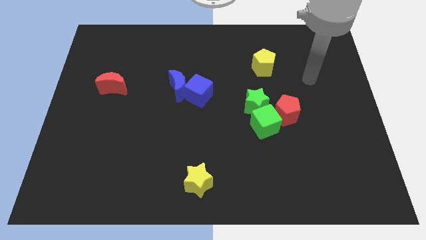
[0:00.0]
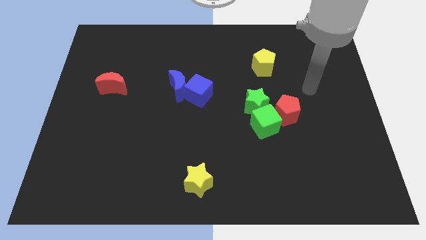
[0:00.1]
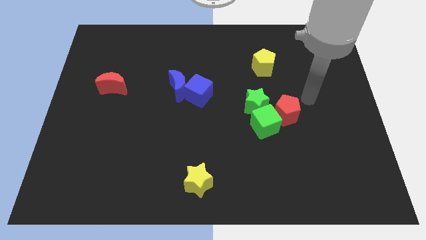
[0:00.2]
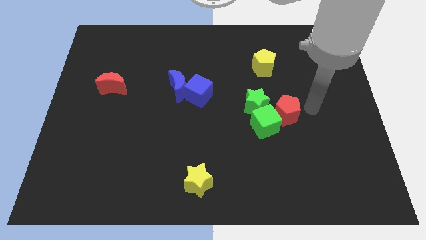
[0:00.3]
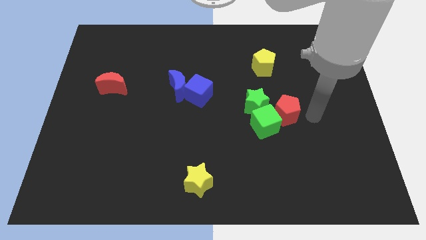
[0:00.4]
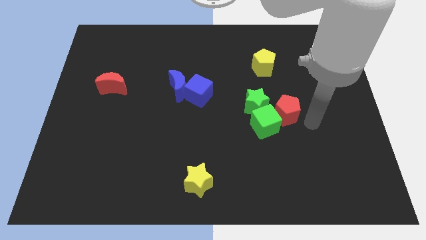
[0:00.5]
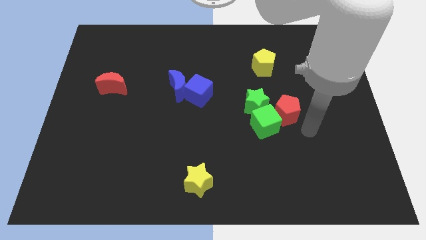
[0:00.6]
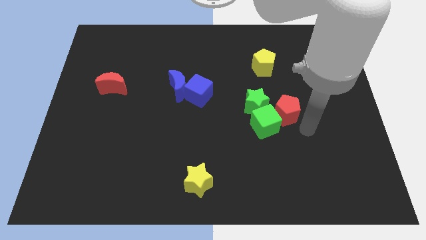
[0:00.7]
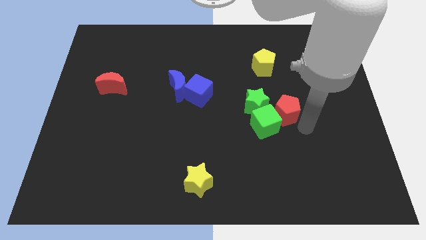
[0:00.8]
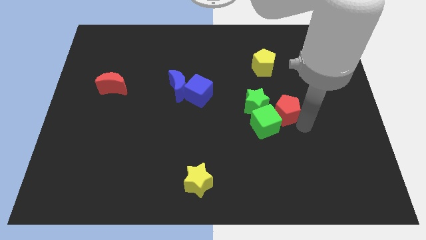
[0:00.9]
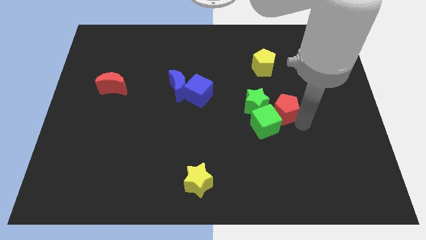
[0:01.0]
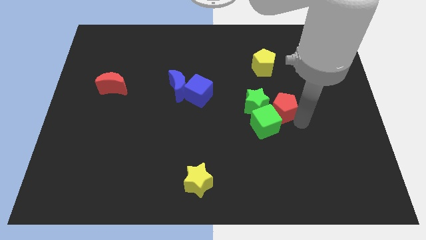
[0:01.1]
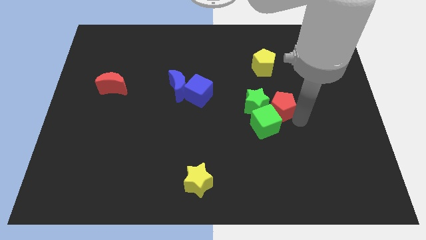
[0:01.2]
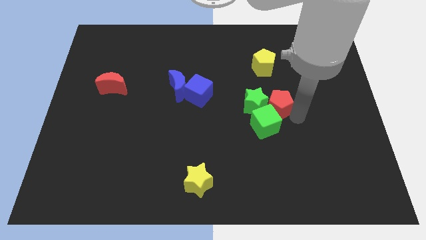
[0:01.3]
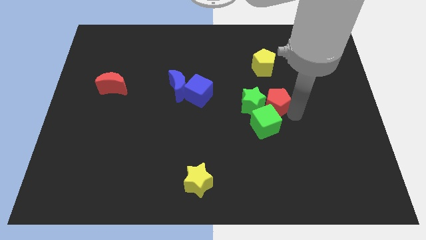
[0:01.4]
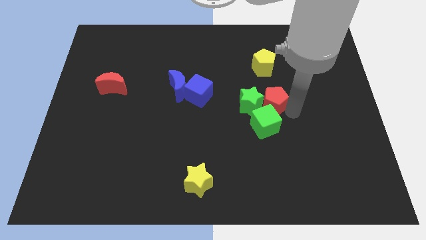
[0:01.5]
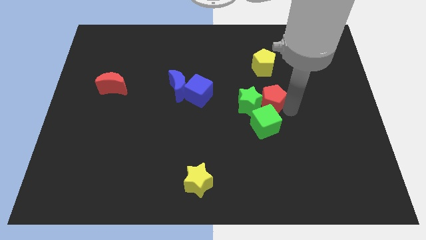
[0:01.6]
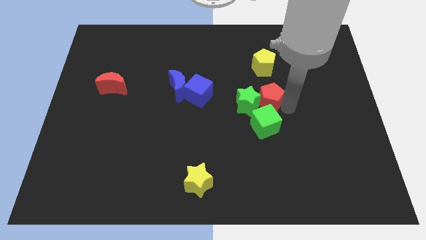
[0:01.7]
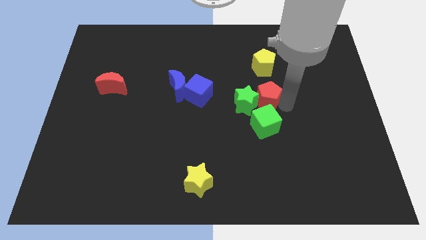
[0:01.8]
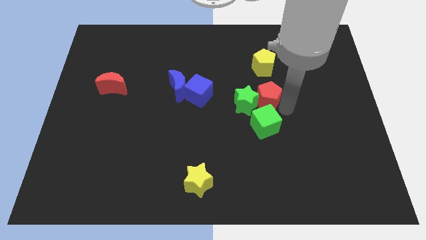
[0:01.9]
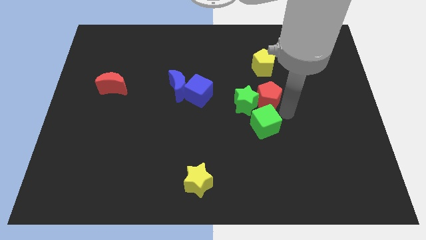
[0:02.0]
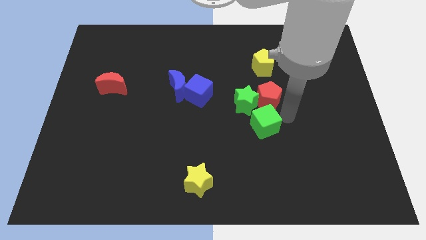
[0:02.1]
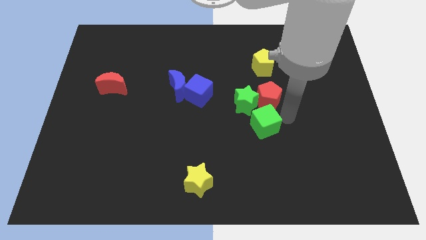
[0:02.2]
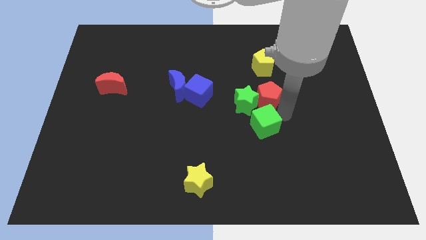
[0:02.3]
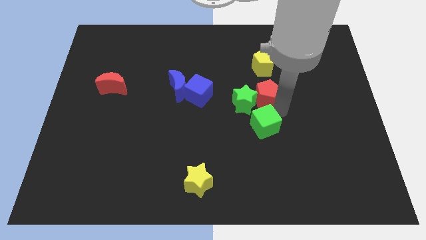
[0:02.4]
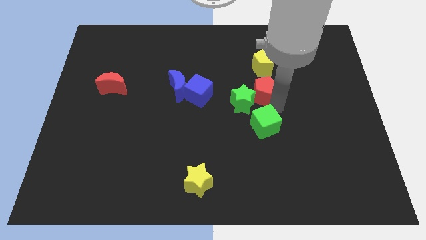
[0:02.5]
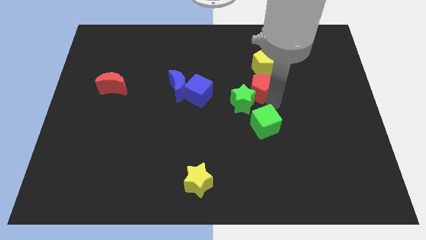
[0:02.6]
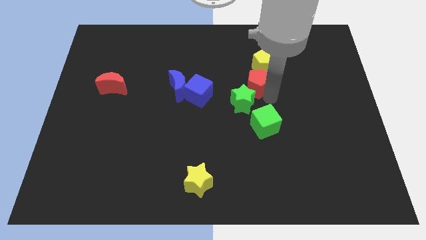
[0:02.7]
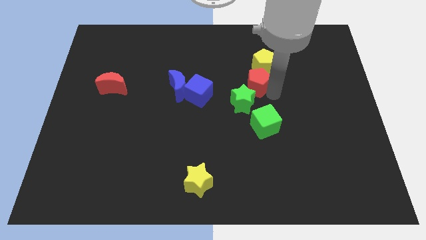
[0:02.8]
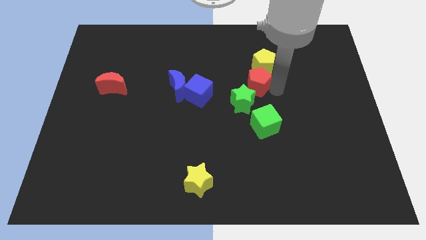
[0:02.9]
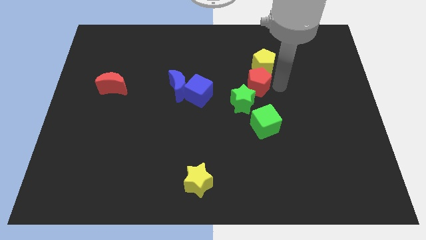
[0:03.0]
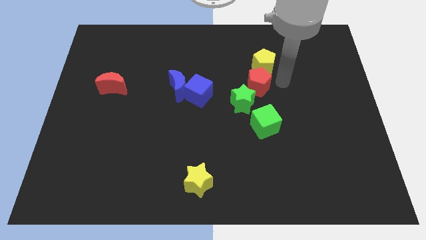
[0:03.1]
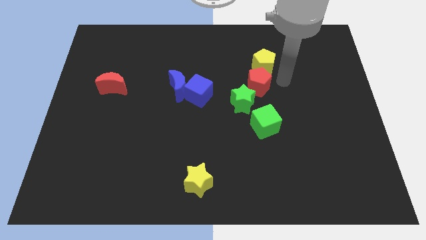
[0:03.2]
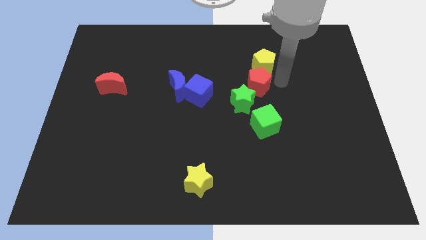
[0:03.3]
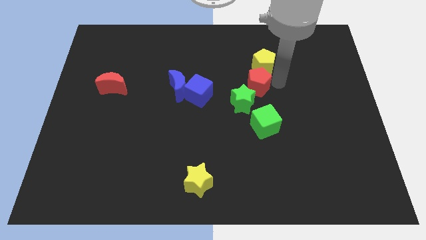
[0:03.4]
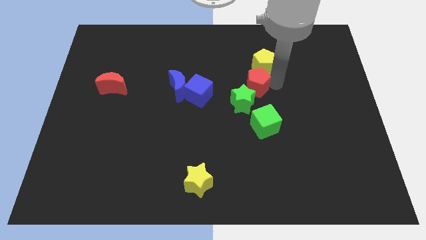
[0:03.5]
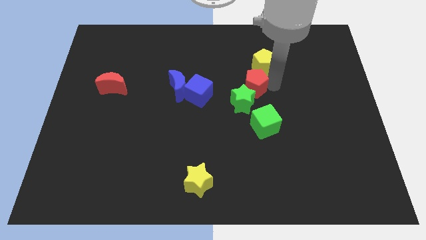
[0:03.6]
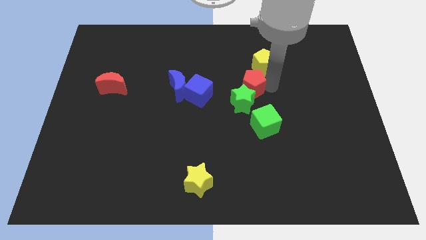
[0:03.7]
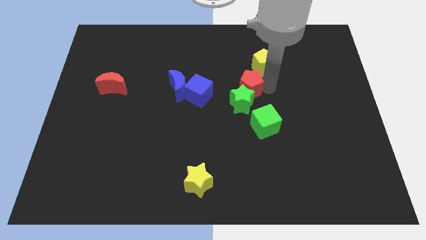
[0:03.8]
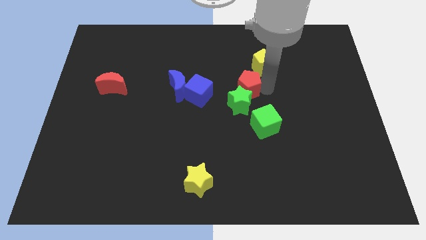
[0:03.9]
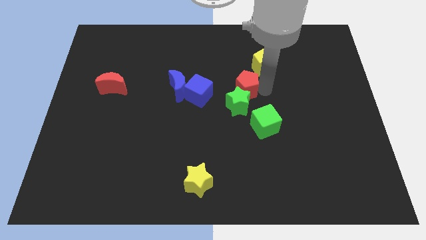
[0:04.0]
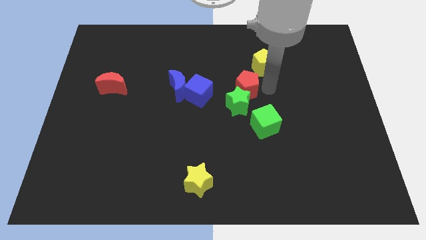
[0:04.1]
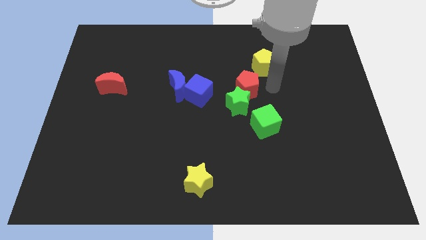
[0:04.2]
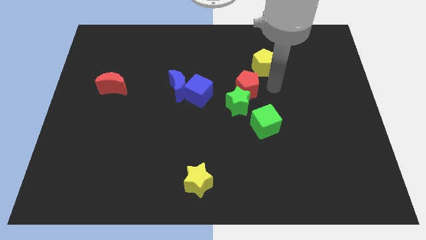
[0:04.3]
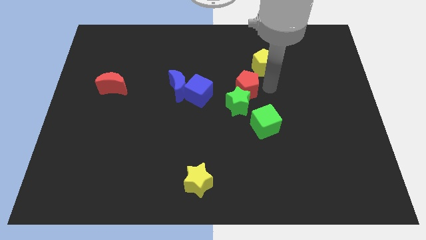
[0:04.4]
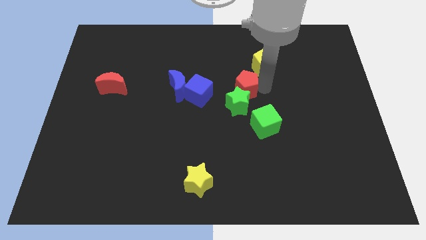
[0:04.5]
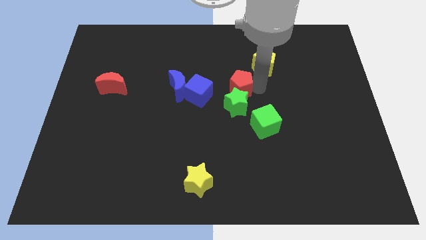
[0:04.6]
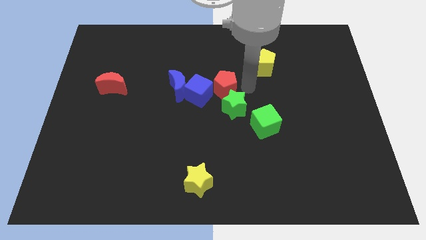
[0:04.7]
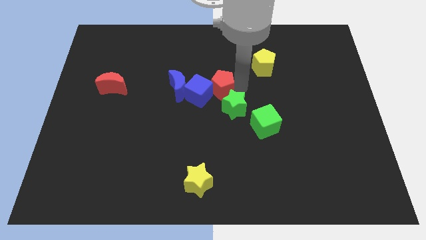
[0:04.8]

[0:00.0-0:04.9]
push the red pentagon close to the blue cube

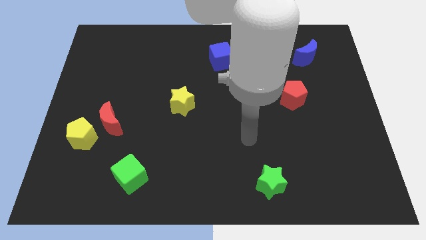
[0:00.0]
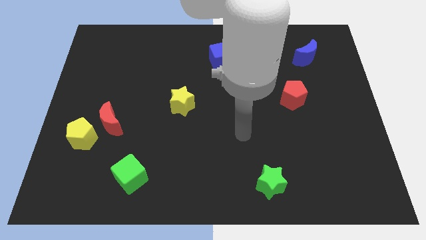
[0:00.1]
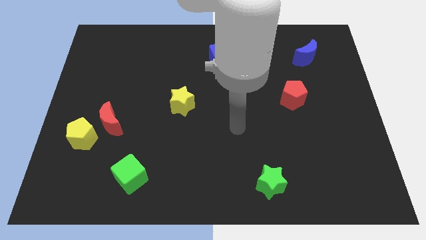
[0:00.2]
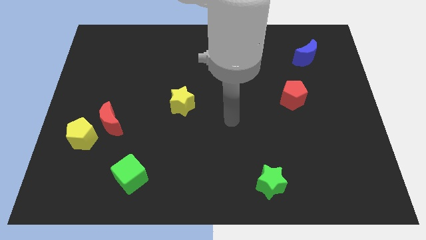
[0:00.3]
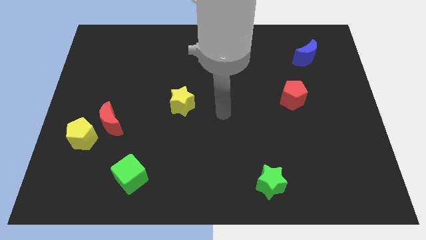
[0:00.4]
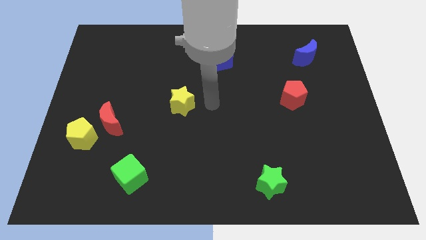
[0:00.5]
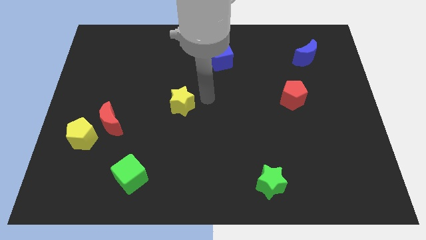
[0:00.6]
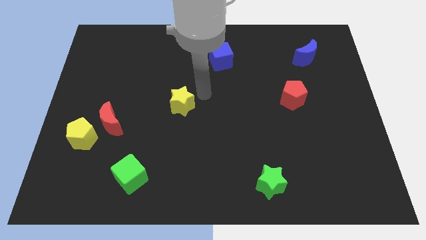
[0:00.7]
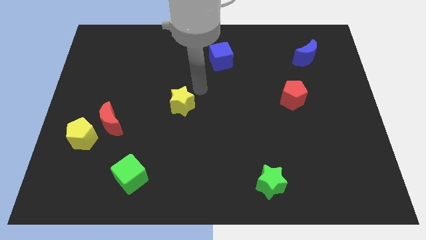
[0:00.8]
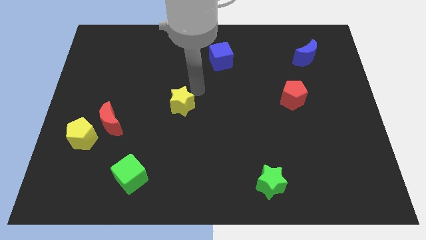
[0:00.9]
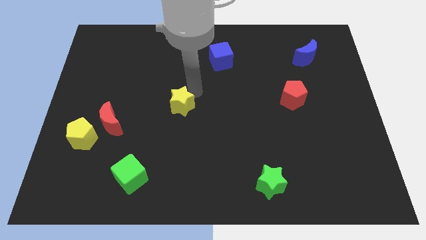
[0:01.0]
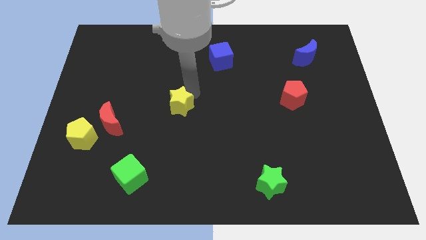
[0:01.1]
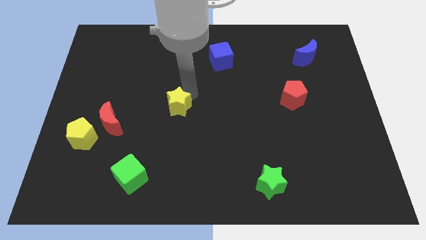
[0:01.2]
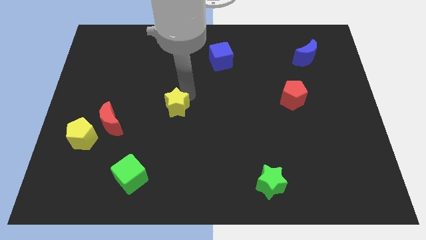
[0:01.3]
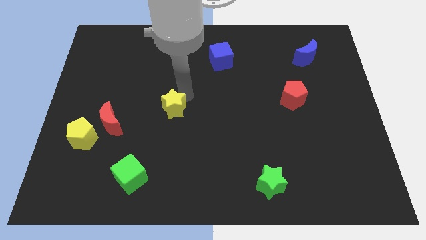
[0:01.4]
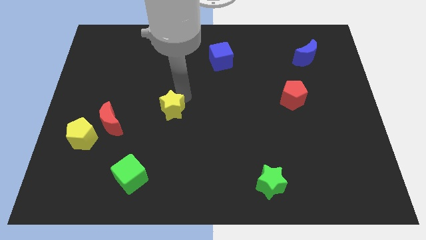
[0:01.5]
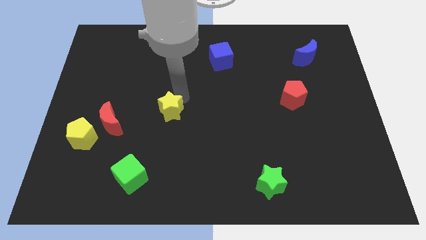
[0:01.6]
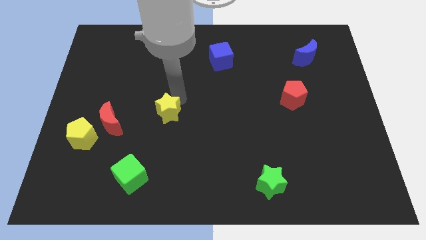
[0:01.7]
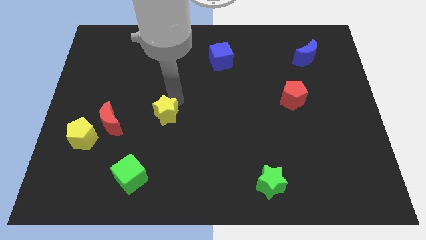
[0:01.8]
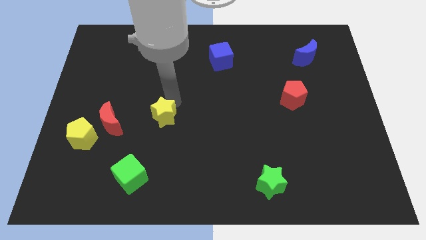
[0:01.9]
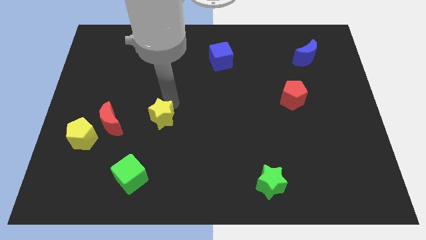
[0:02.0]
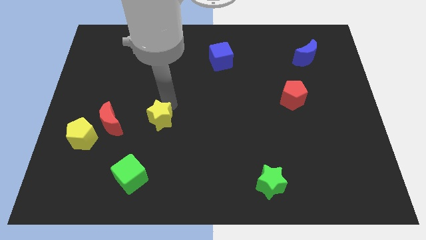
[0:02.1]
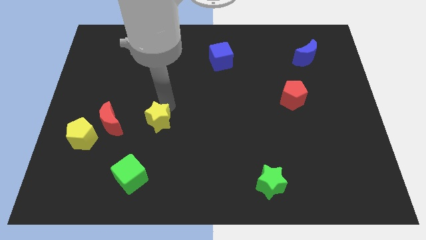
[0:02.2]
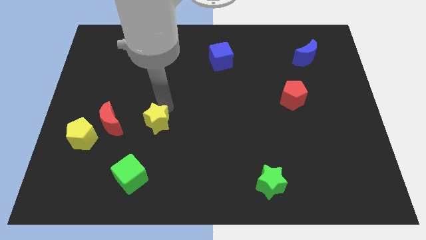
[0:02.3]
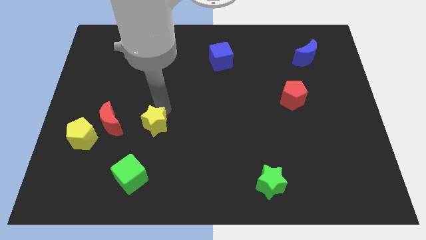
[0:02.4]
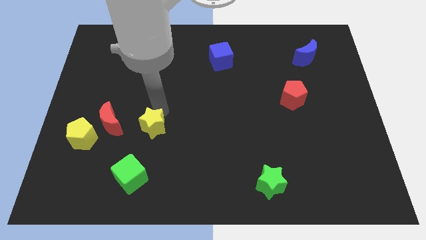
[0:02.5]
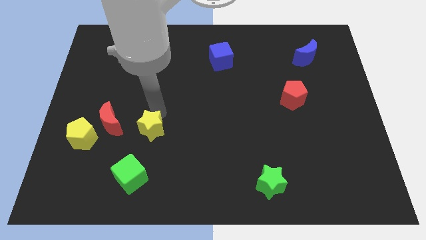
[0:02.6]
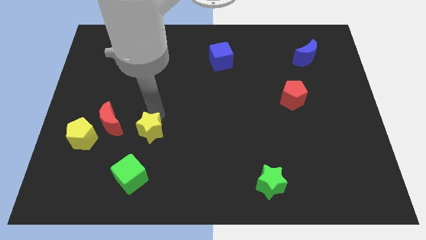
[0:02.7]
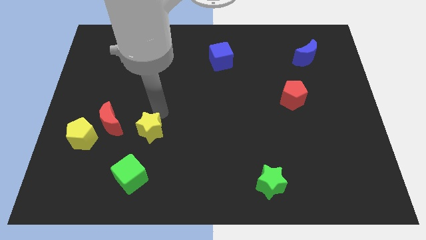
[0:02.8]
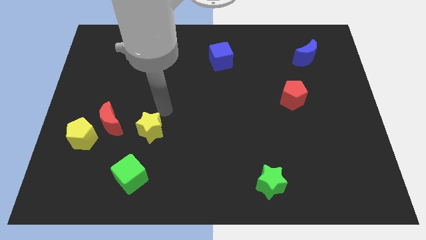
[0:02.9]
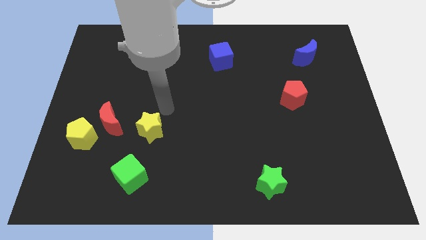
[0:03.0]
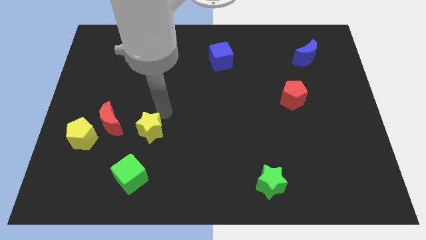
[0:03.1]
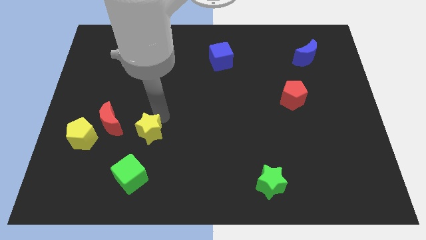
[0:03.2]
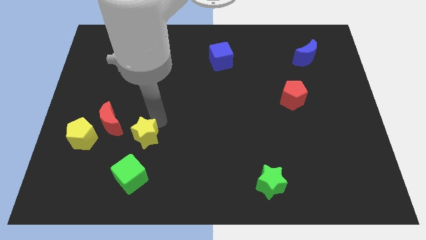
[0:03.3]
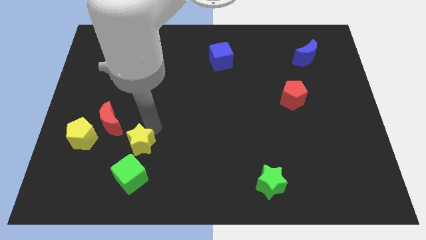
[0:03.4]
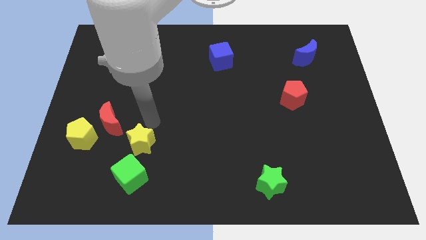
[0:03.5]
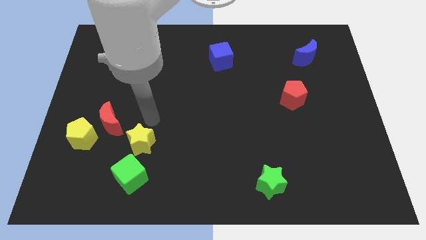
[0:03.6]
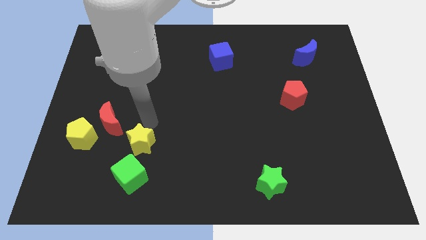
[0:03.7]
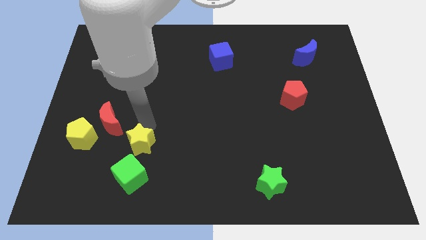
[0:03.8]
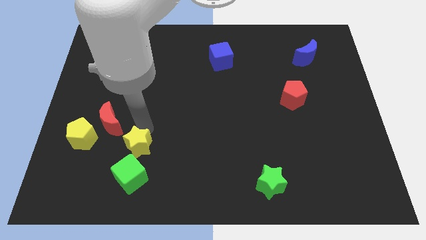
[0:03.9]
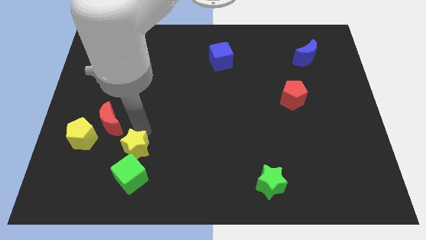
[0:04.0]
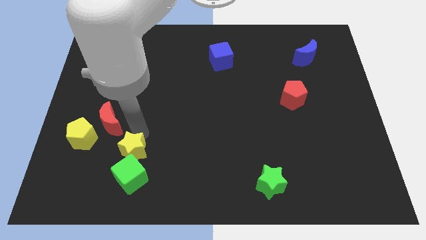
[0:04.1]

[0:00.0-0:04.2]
put the yellow star towards the green cube
